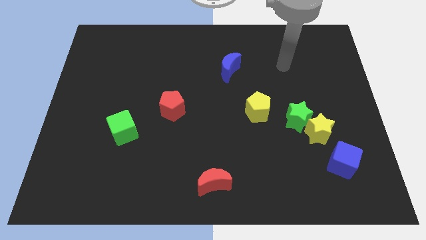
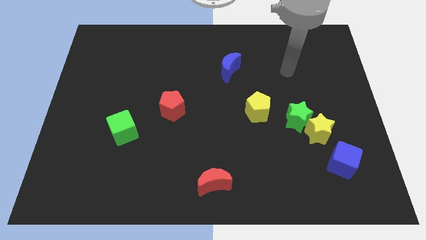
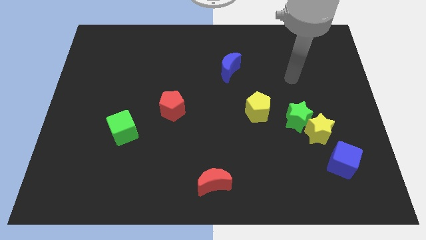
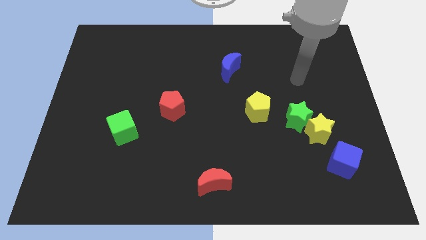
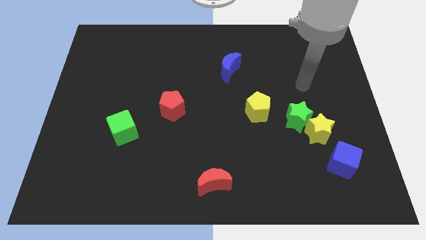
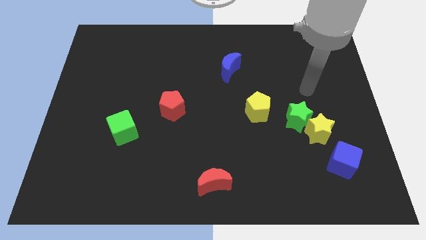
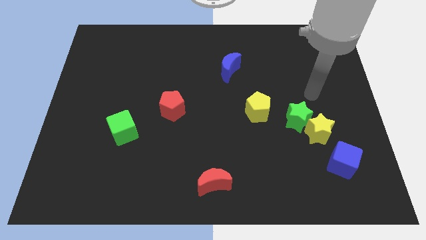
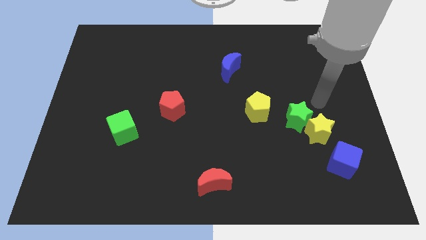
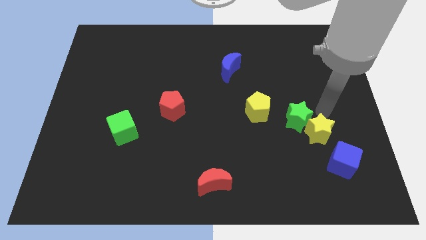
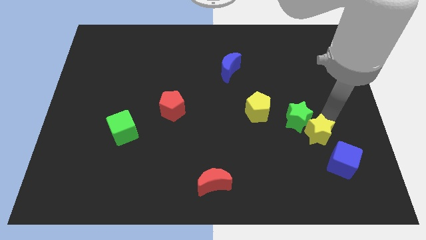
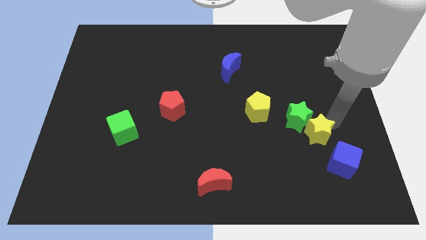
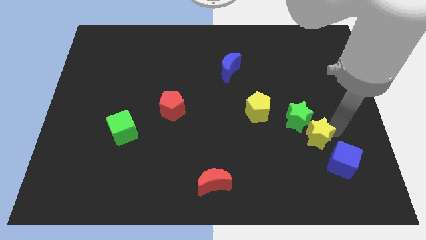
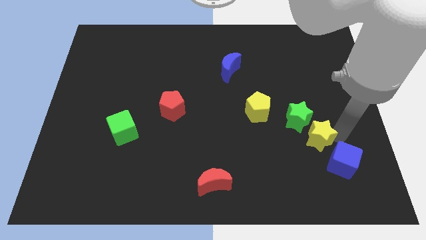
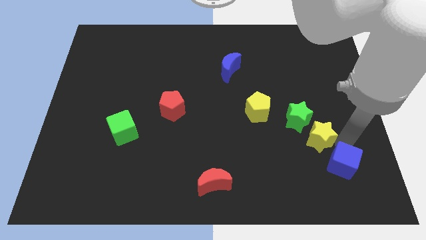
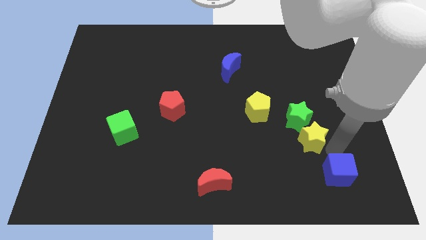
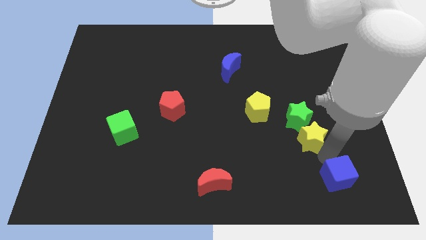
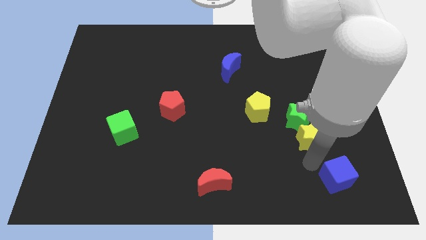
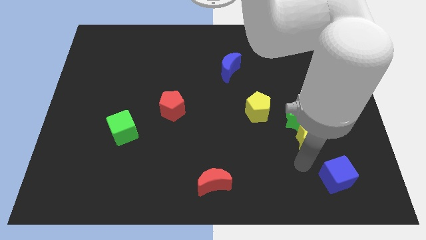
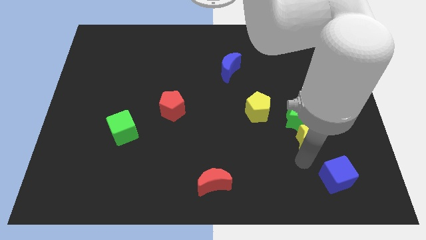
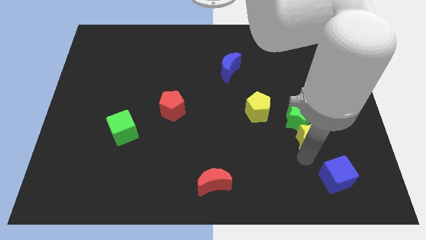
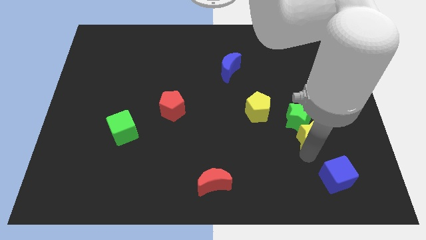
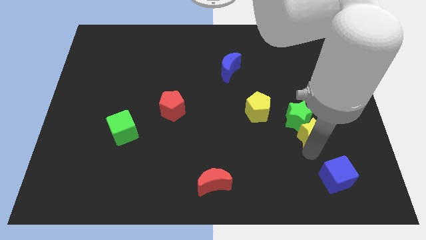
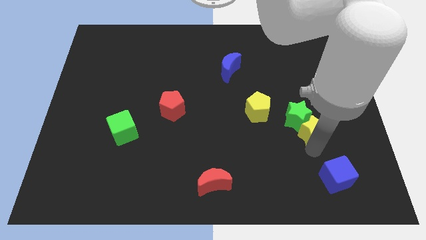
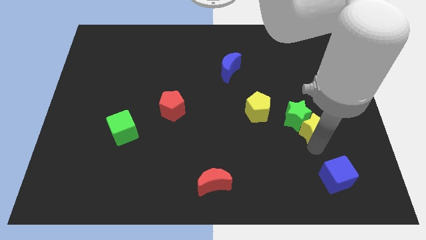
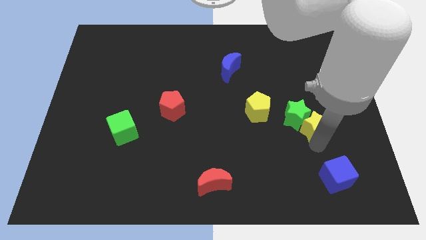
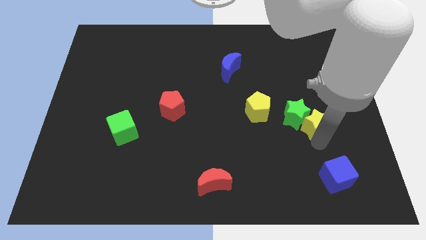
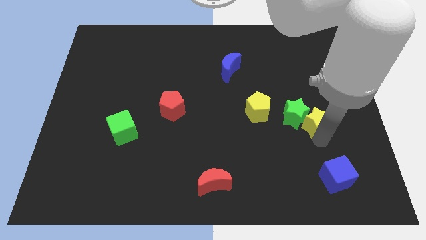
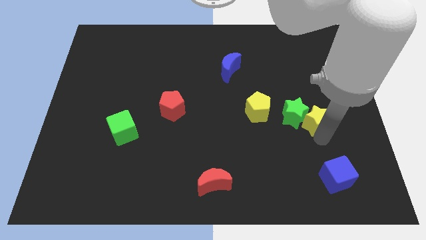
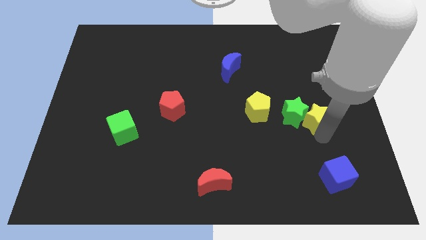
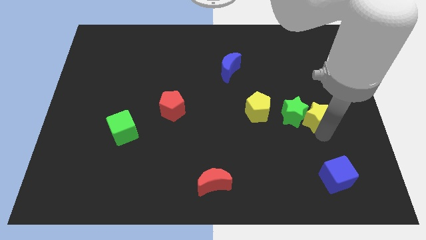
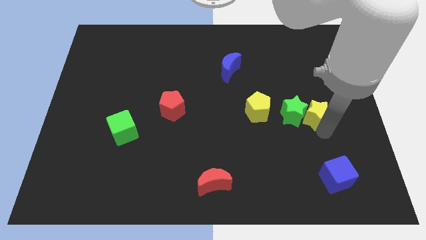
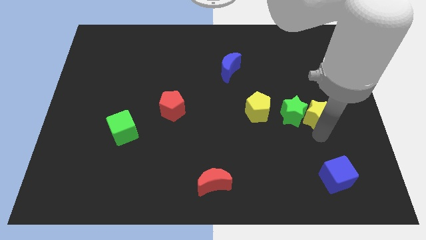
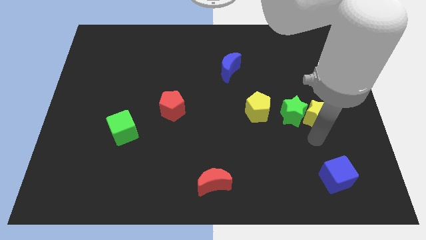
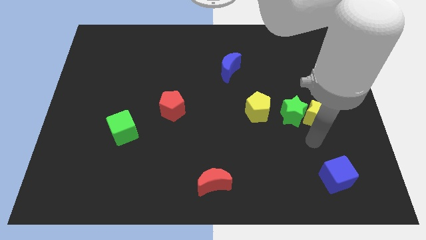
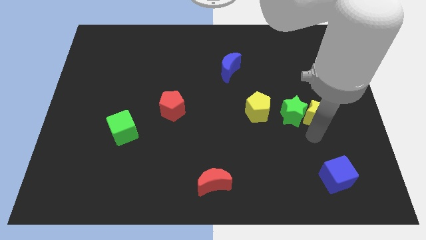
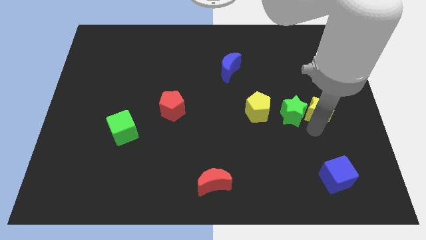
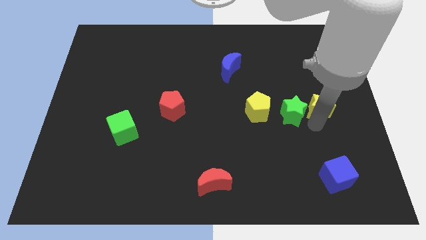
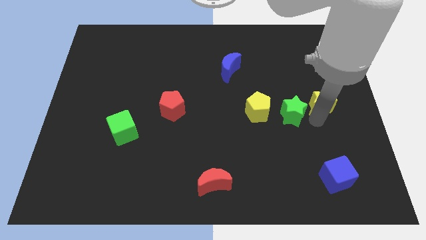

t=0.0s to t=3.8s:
separate the yellow star from the green star and blue cube

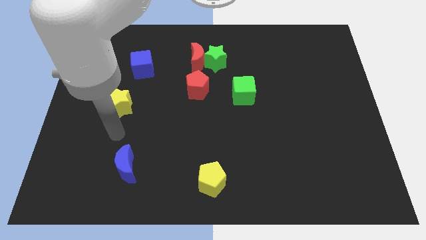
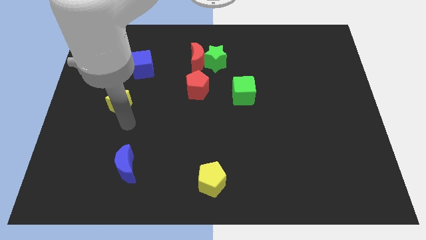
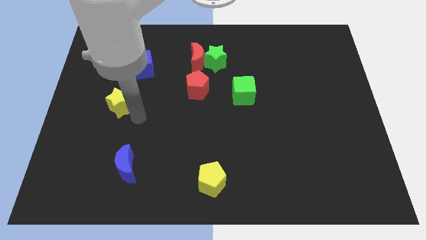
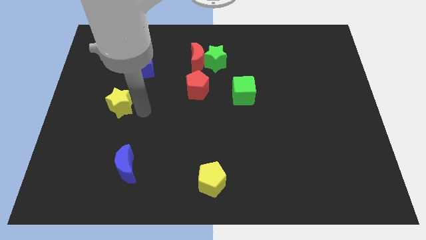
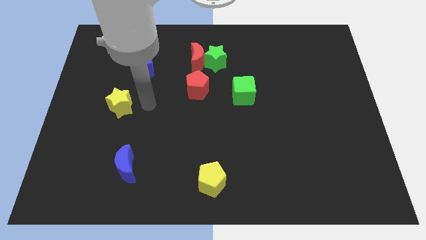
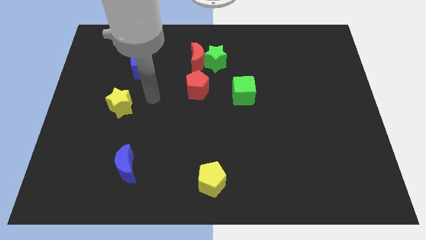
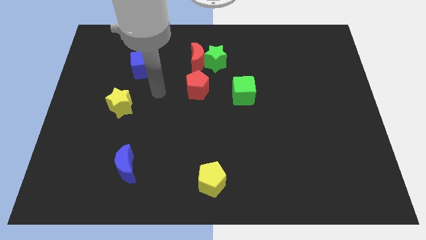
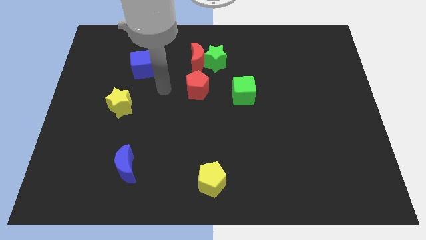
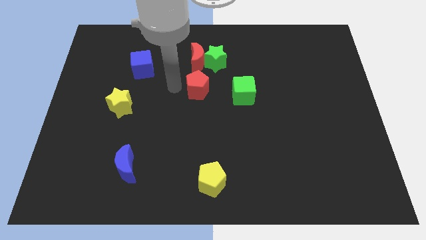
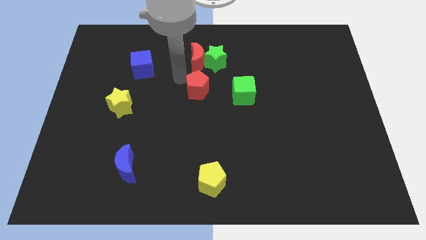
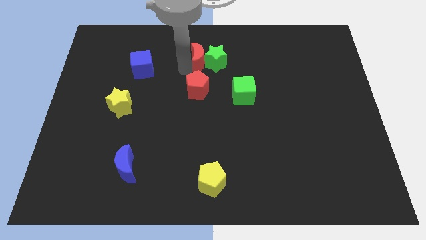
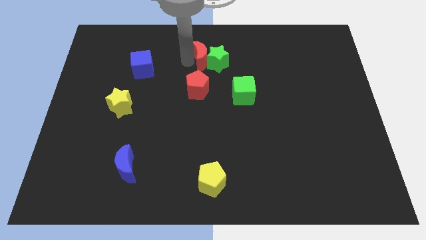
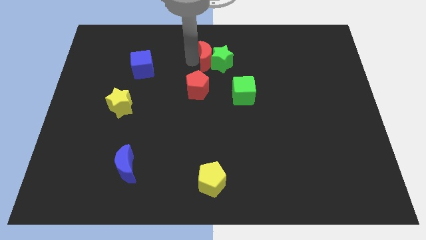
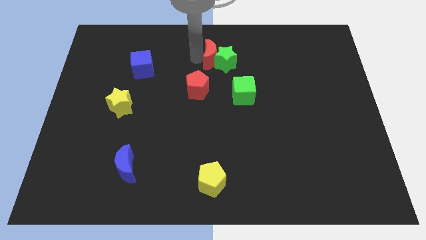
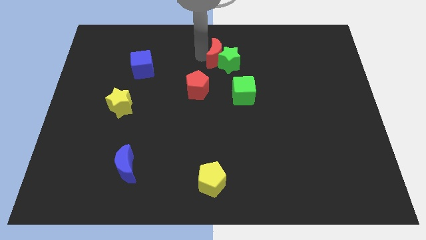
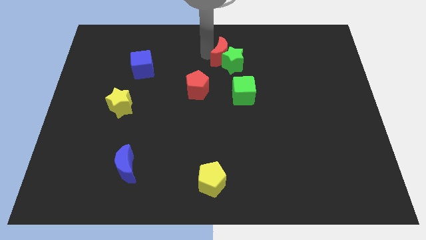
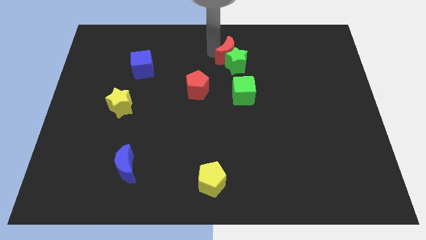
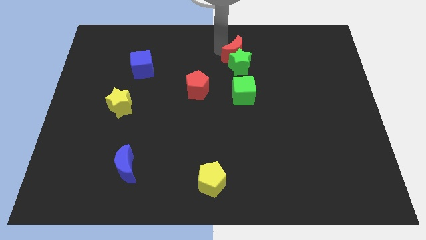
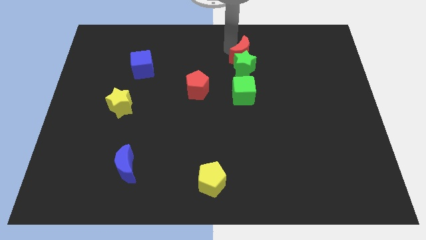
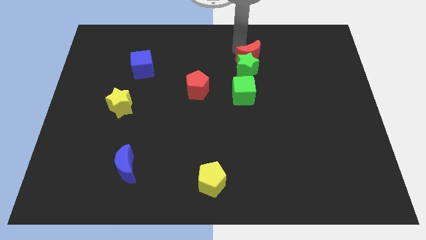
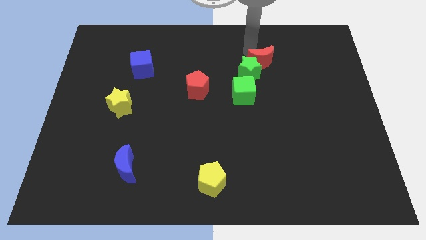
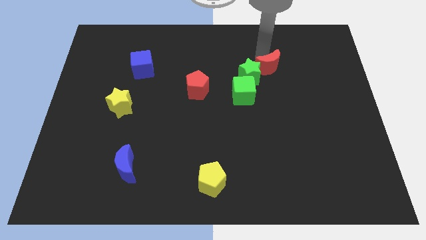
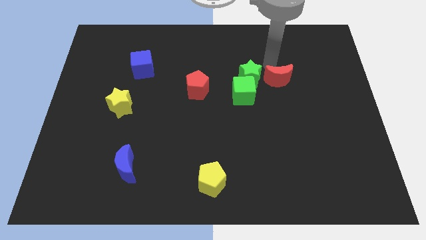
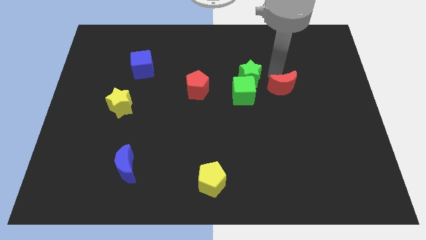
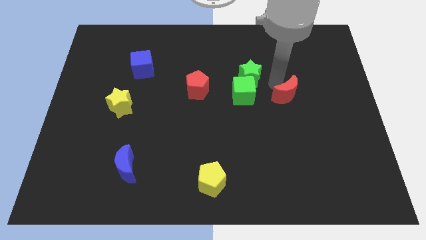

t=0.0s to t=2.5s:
move the green star away from the red moon

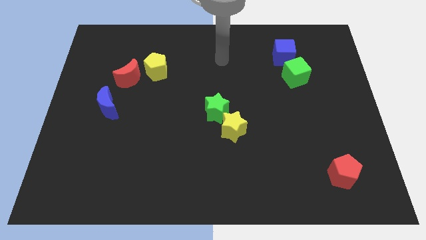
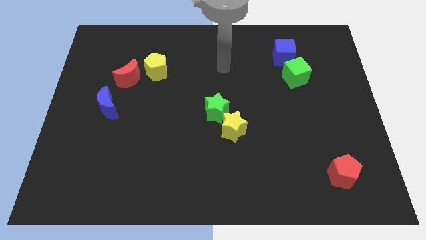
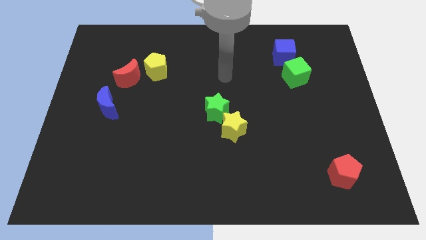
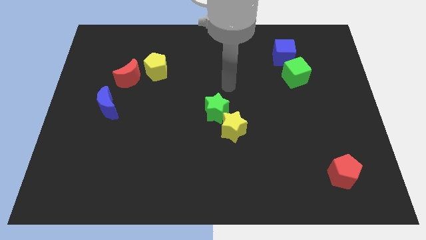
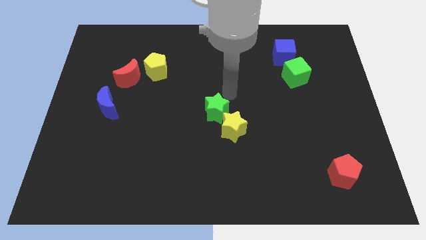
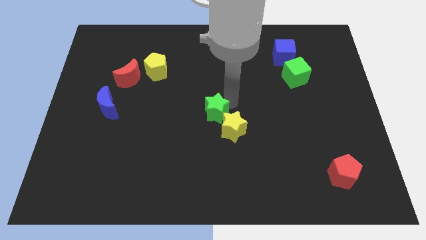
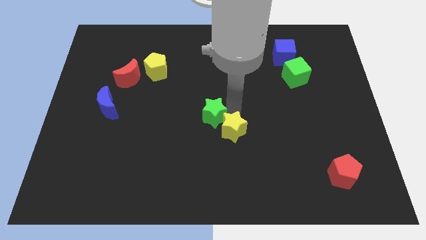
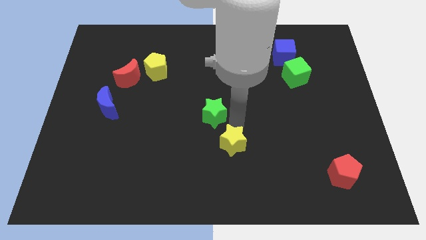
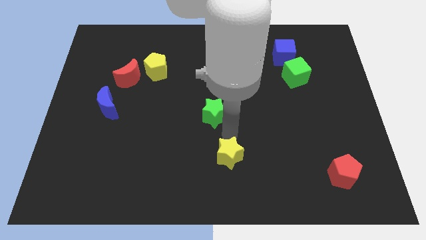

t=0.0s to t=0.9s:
move the green star away from the yellow star

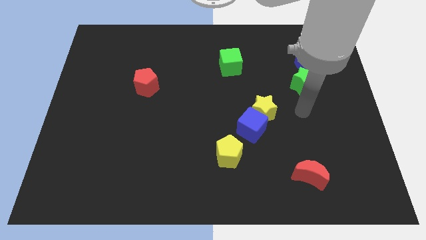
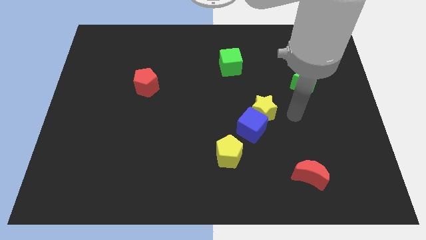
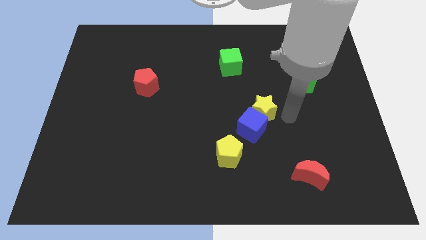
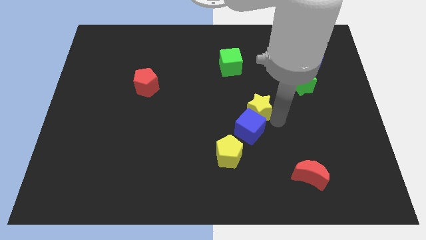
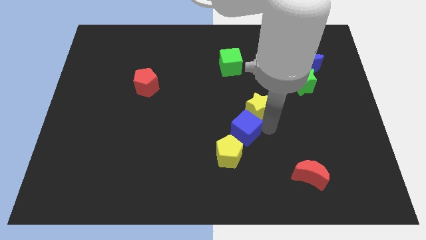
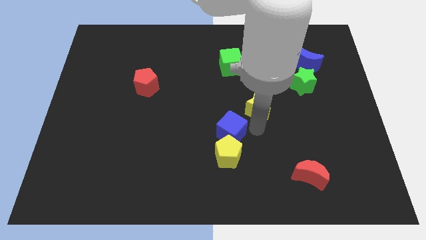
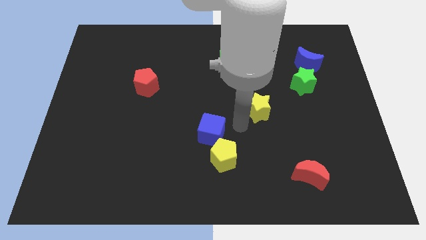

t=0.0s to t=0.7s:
move the yellow star away from the blue cube

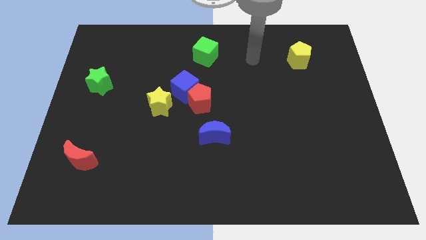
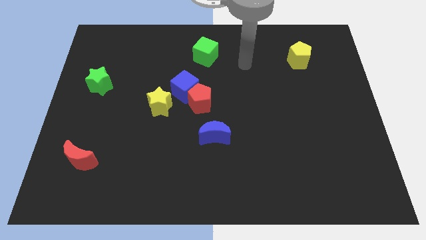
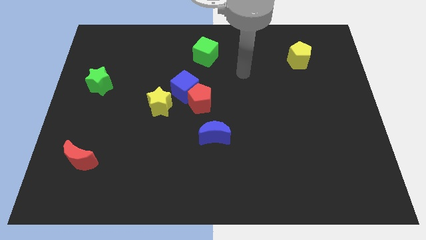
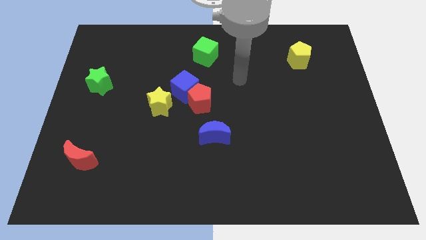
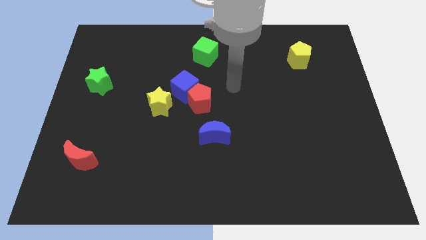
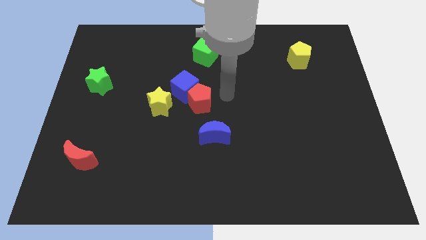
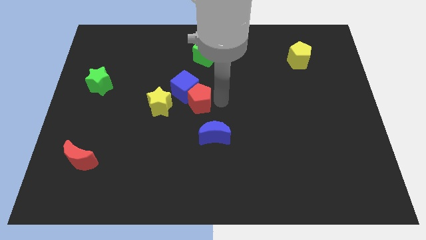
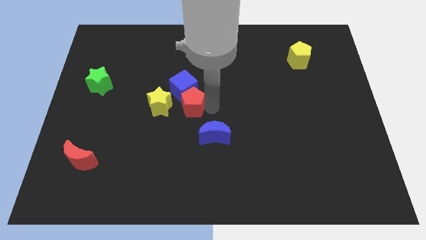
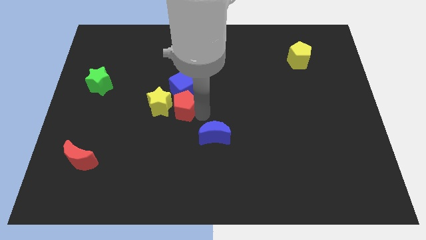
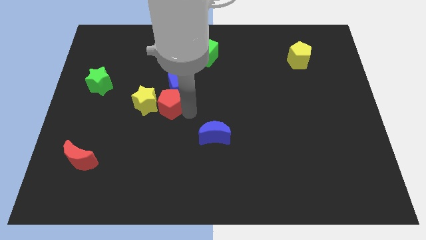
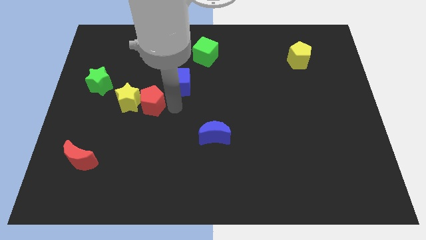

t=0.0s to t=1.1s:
move the blue cube away from the red pentagon and yellow star

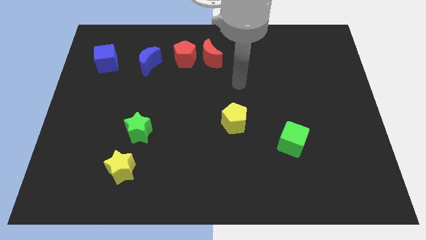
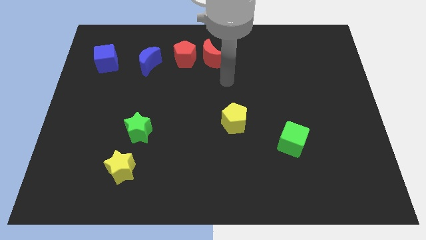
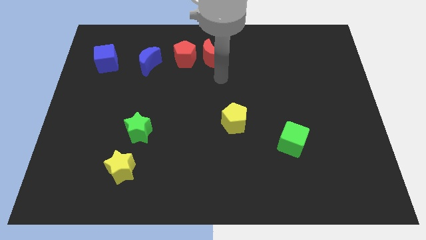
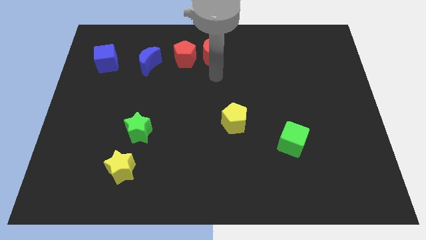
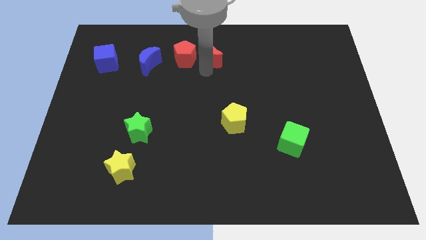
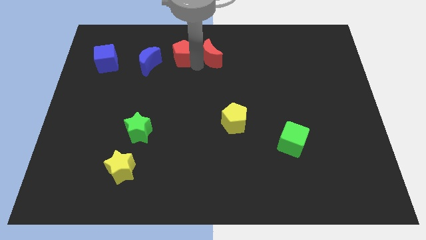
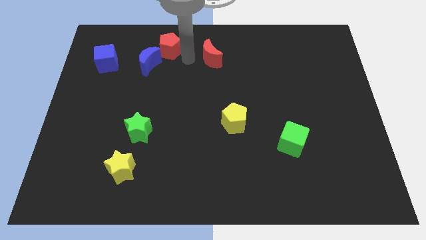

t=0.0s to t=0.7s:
pull the red moon apart from the red pentagon
